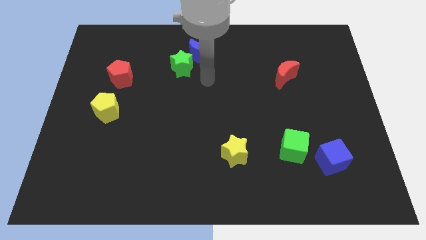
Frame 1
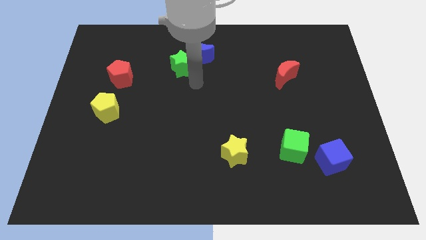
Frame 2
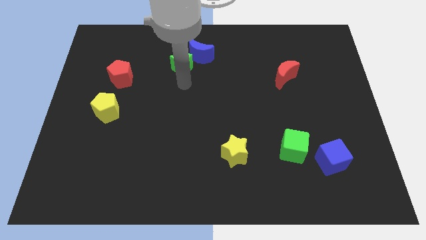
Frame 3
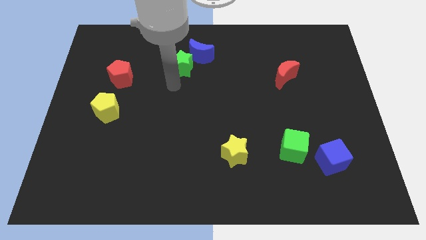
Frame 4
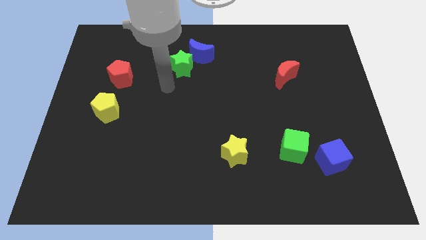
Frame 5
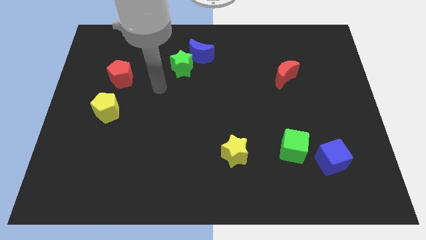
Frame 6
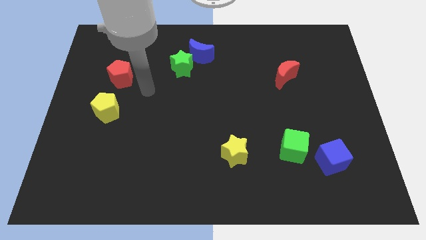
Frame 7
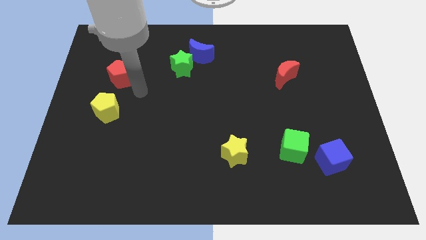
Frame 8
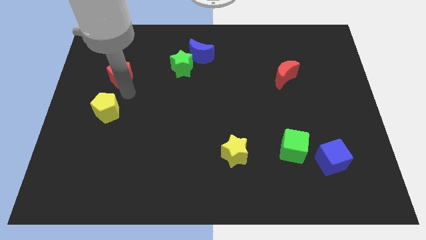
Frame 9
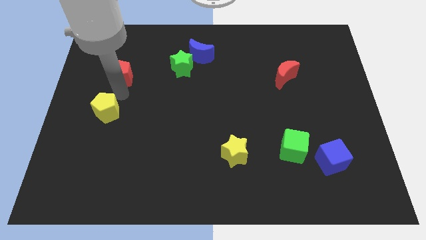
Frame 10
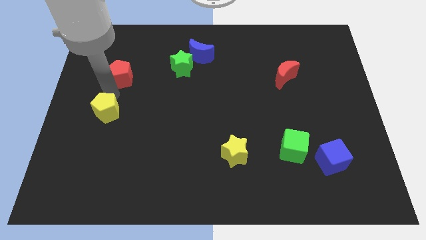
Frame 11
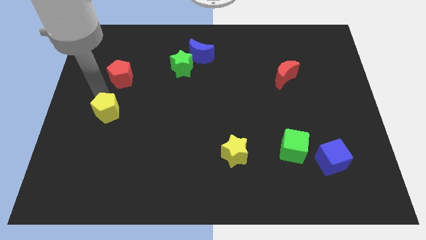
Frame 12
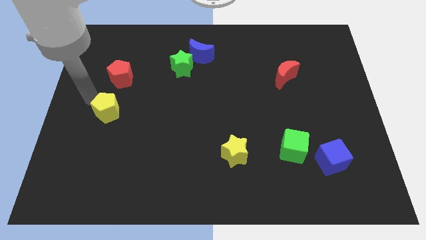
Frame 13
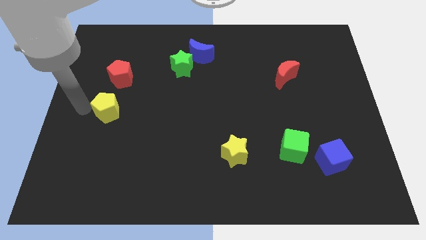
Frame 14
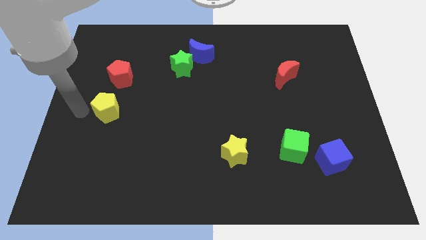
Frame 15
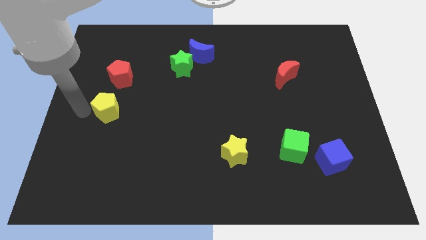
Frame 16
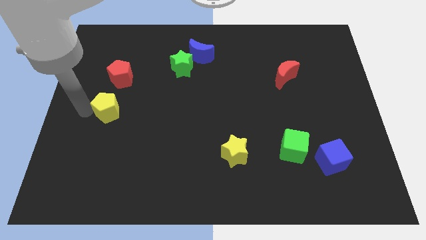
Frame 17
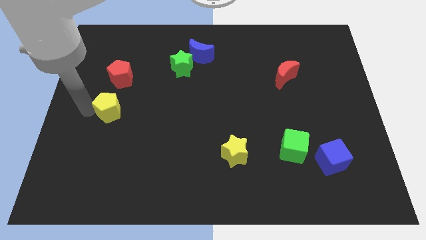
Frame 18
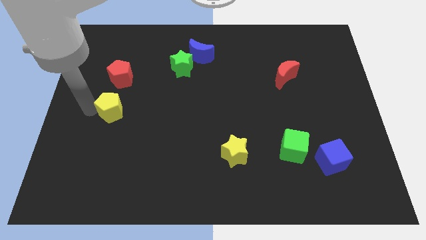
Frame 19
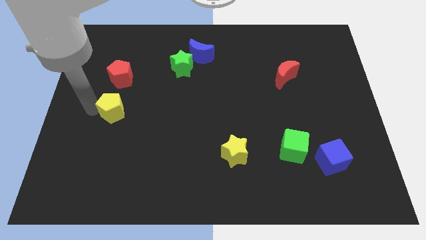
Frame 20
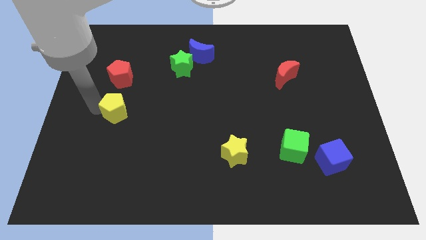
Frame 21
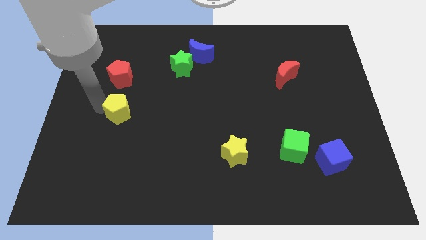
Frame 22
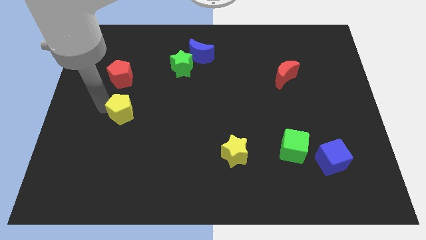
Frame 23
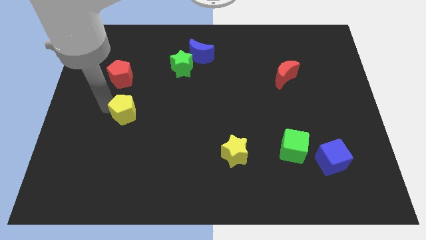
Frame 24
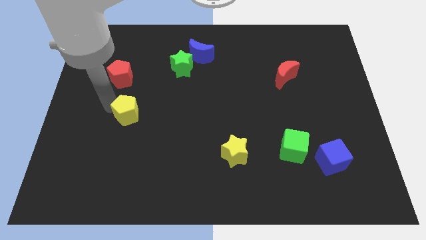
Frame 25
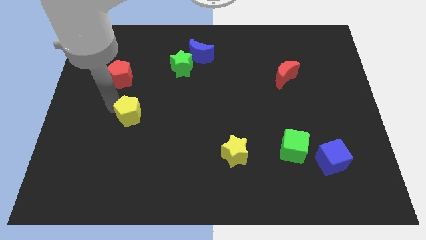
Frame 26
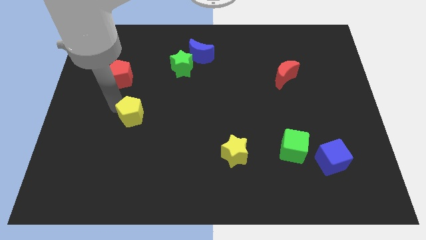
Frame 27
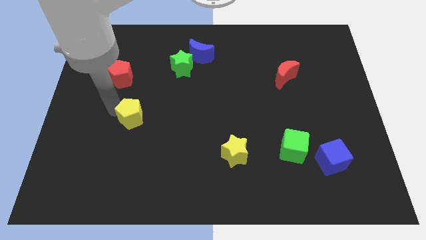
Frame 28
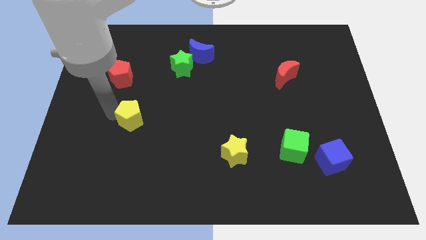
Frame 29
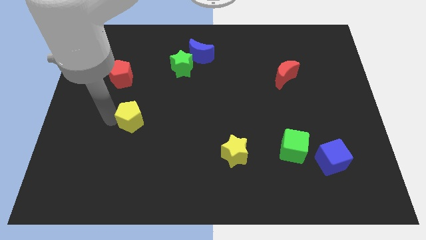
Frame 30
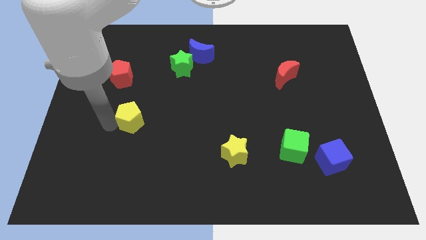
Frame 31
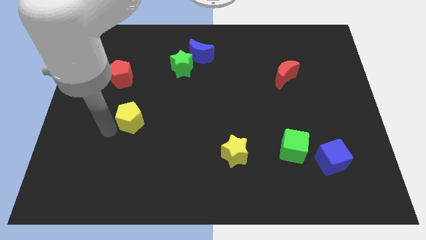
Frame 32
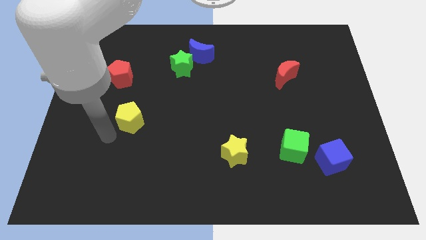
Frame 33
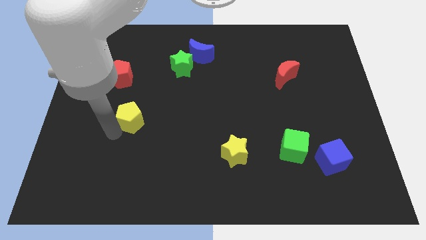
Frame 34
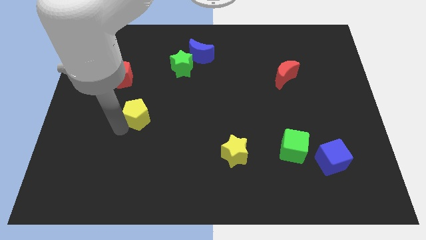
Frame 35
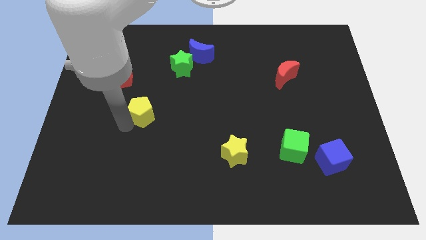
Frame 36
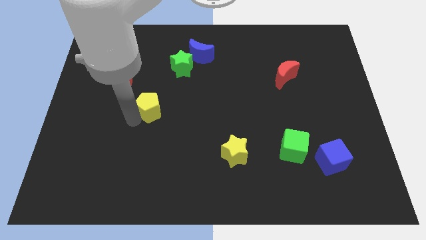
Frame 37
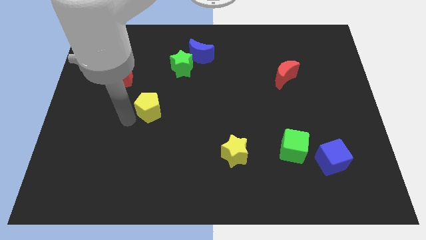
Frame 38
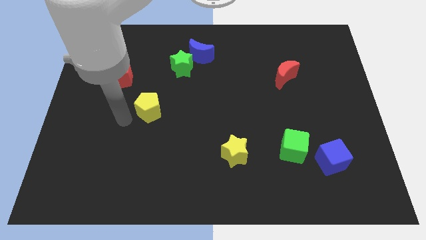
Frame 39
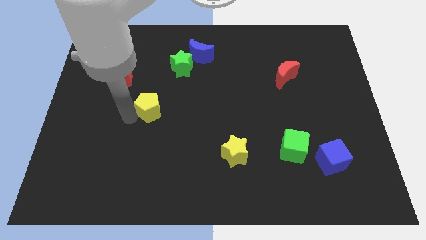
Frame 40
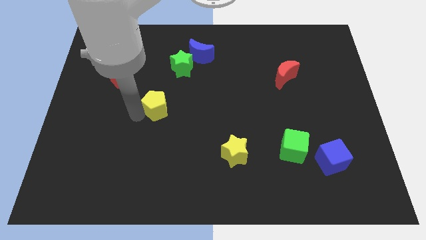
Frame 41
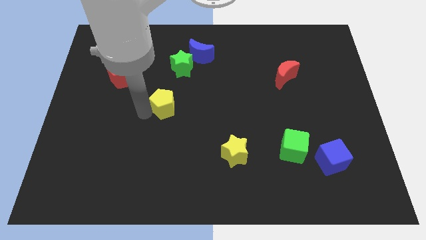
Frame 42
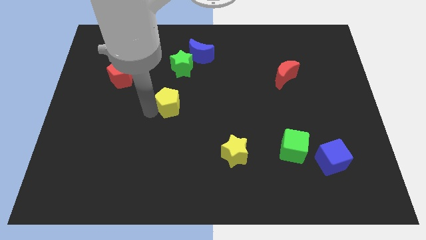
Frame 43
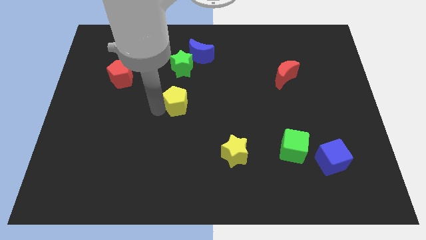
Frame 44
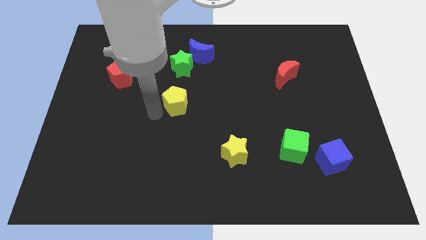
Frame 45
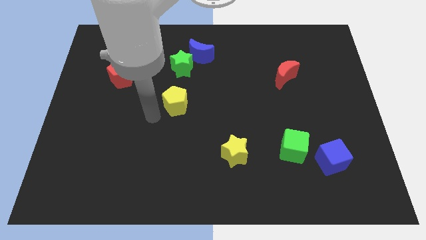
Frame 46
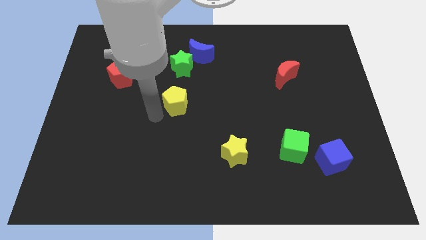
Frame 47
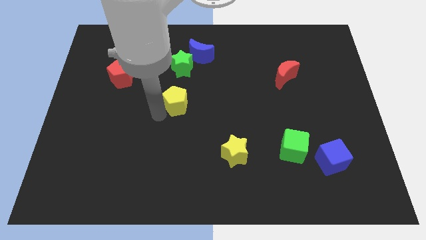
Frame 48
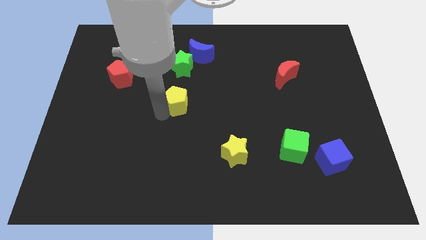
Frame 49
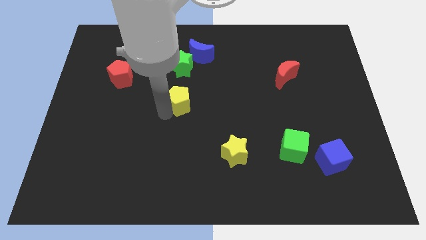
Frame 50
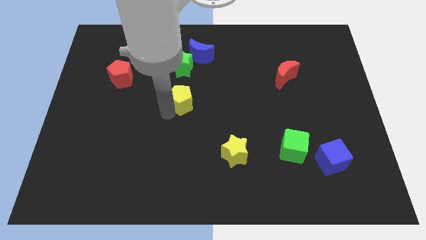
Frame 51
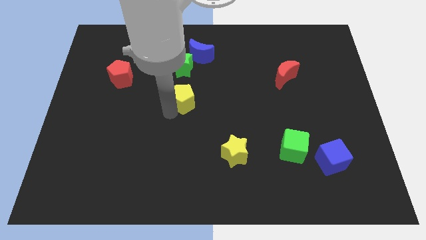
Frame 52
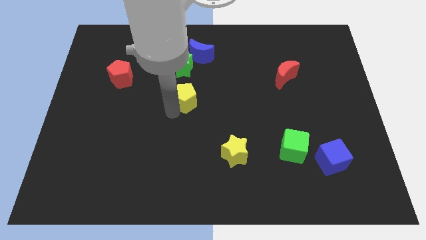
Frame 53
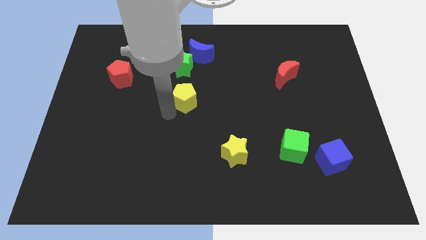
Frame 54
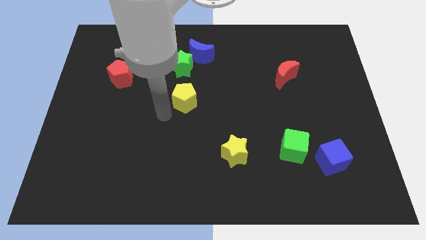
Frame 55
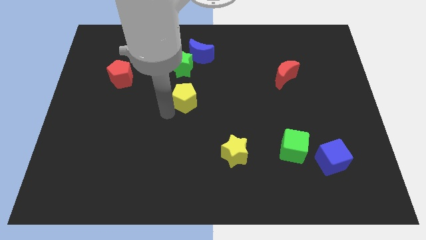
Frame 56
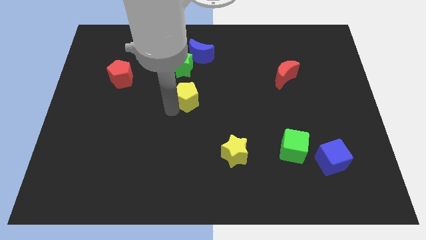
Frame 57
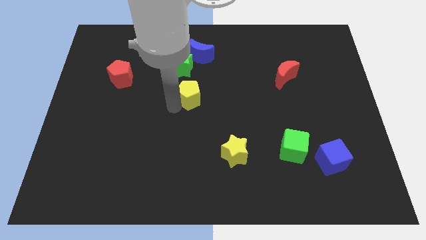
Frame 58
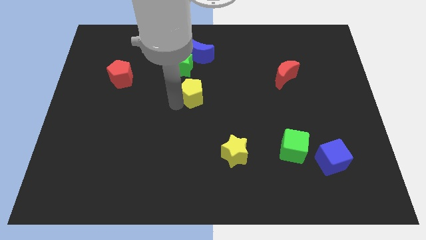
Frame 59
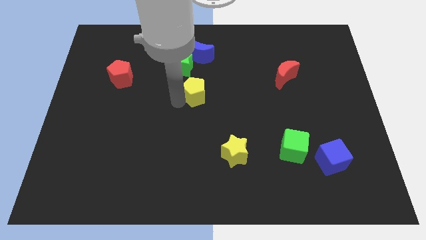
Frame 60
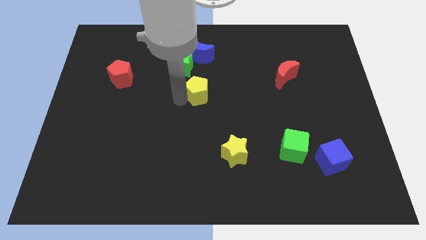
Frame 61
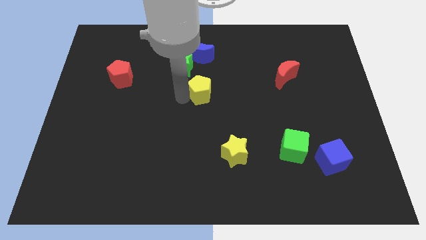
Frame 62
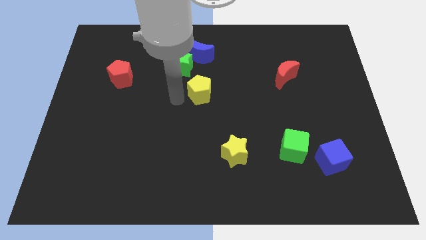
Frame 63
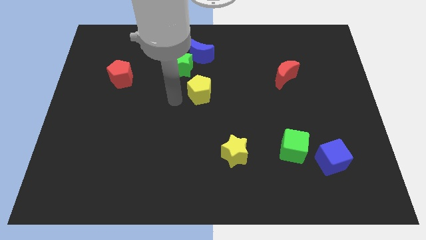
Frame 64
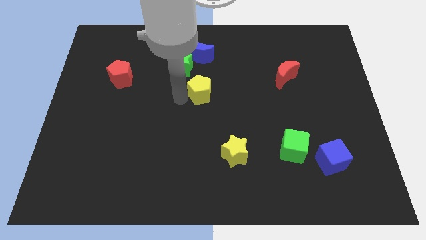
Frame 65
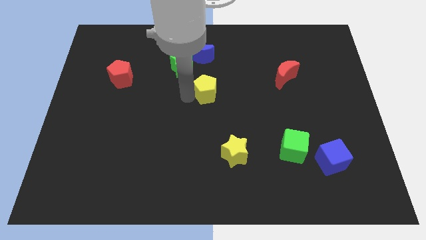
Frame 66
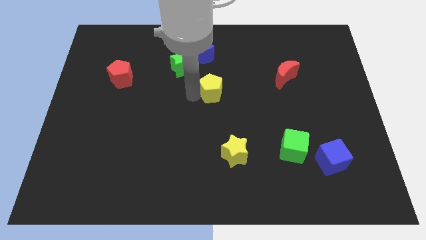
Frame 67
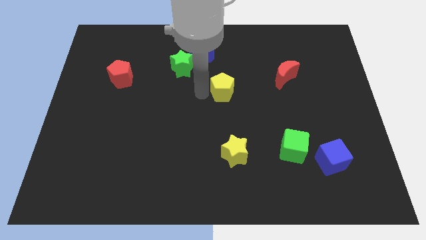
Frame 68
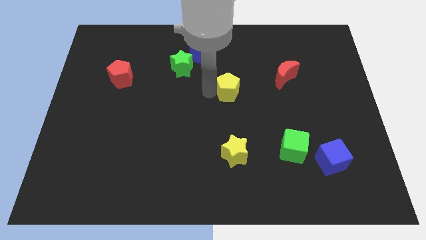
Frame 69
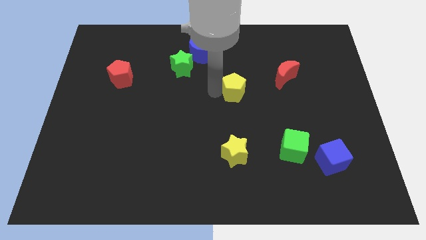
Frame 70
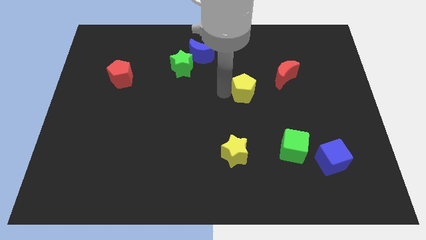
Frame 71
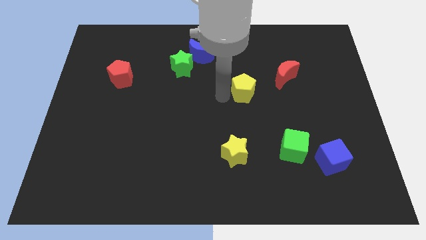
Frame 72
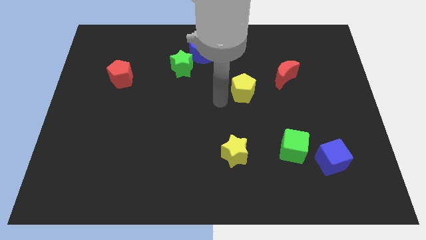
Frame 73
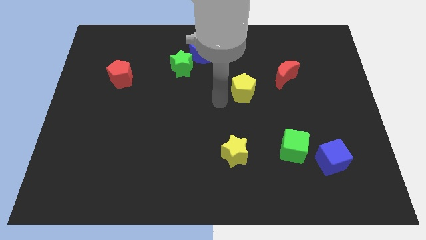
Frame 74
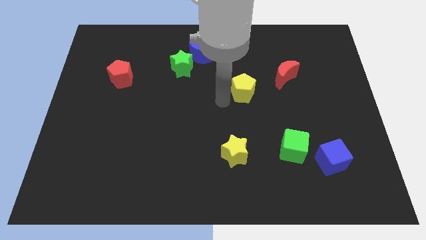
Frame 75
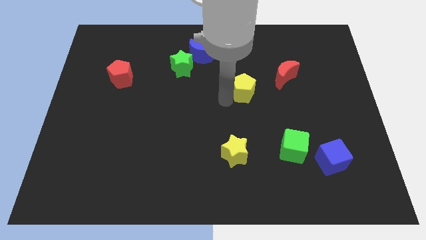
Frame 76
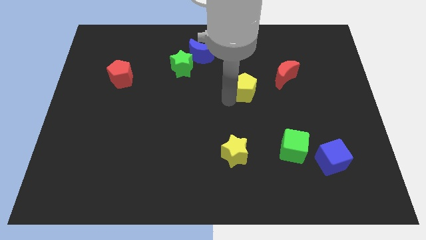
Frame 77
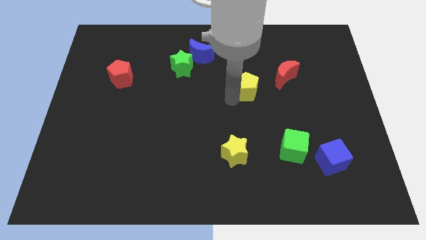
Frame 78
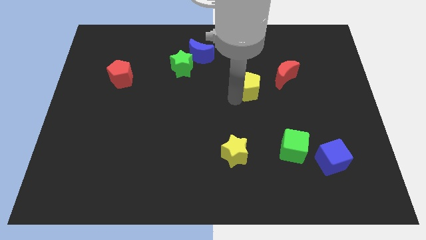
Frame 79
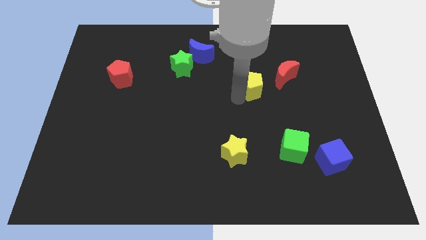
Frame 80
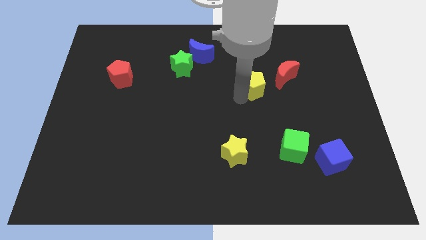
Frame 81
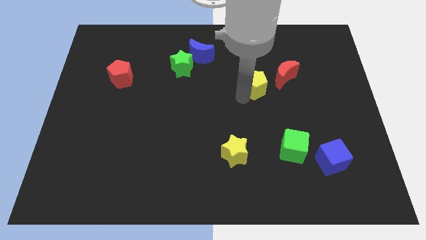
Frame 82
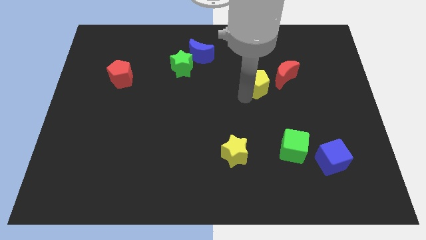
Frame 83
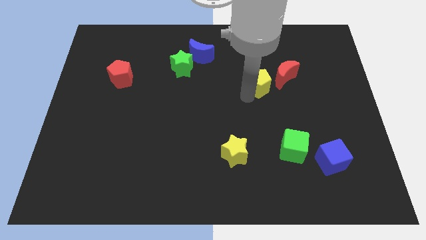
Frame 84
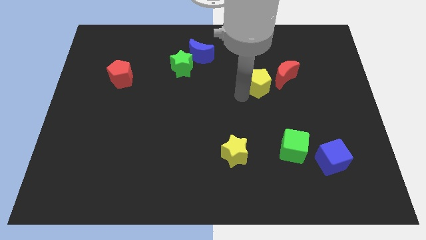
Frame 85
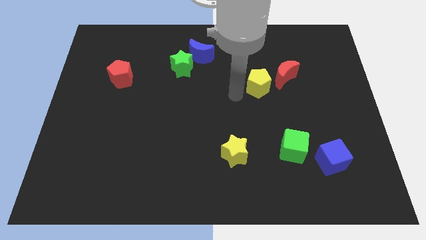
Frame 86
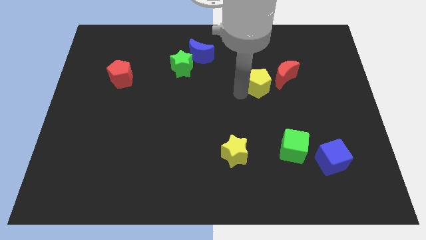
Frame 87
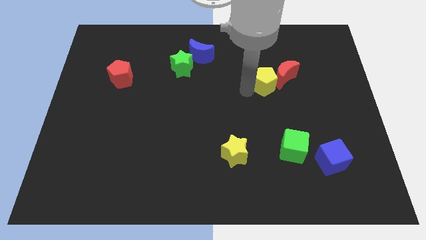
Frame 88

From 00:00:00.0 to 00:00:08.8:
put the yellow pentagon next to the red moon
